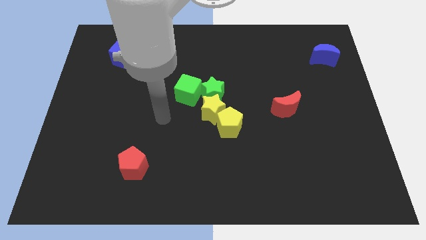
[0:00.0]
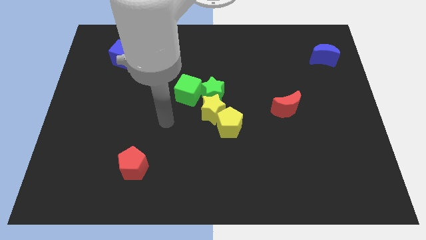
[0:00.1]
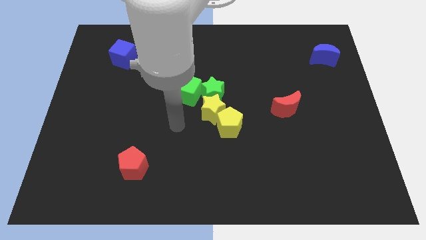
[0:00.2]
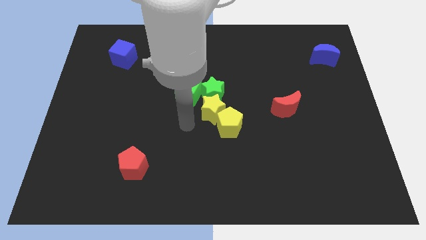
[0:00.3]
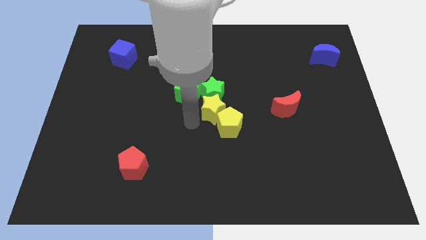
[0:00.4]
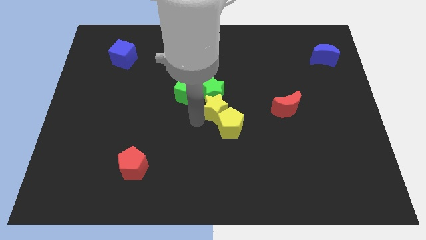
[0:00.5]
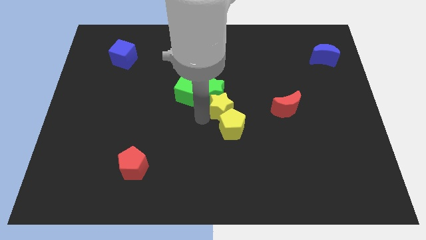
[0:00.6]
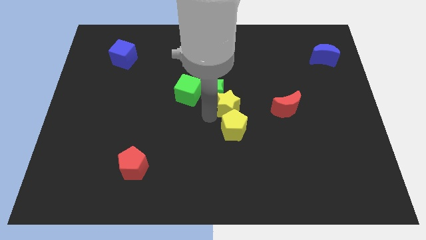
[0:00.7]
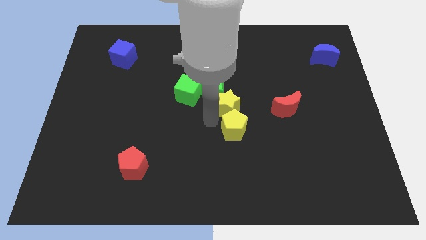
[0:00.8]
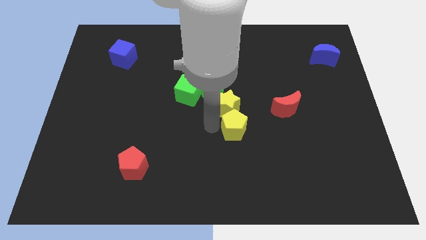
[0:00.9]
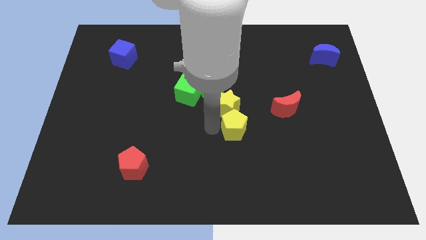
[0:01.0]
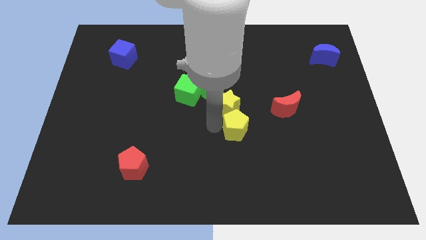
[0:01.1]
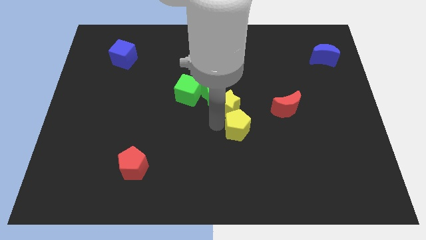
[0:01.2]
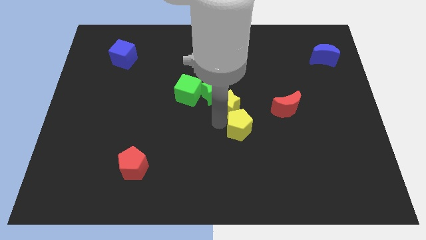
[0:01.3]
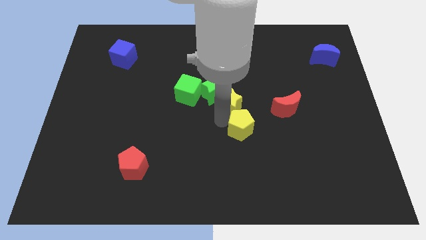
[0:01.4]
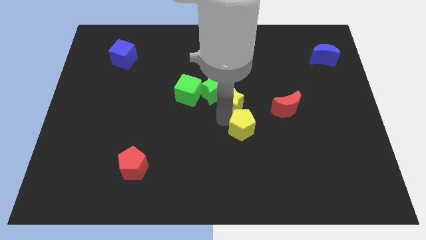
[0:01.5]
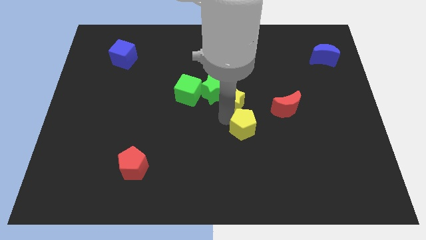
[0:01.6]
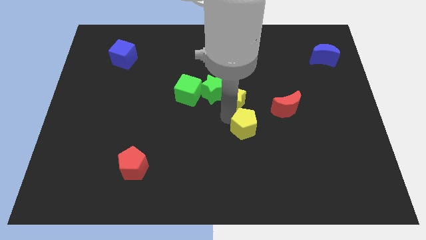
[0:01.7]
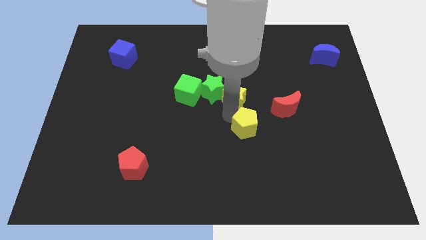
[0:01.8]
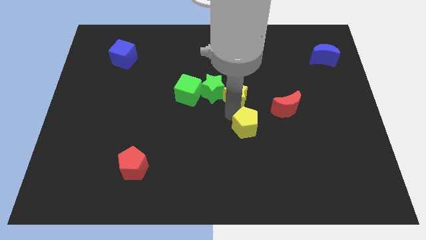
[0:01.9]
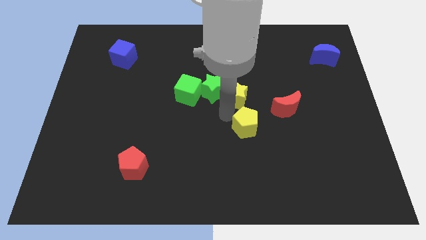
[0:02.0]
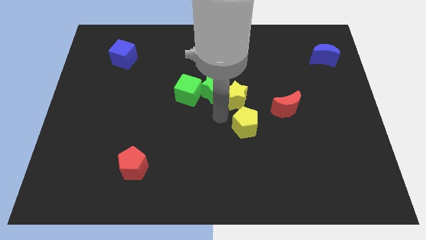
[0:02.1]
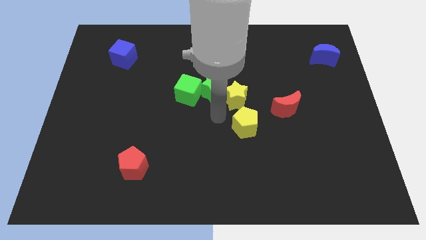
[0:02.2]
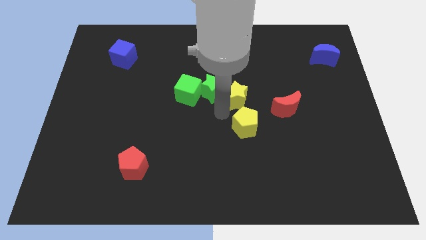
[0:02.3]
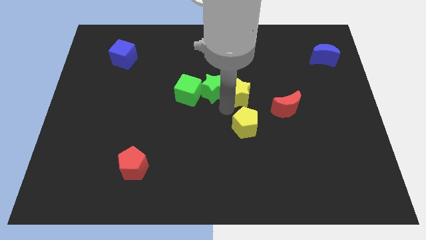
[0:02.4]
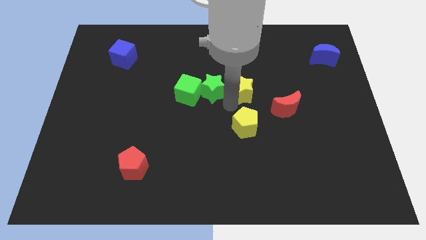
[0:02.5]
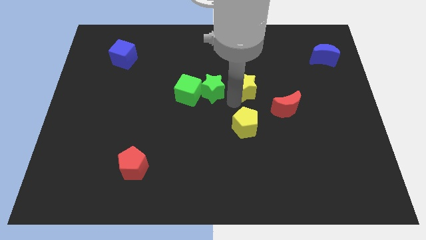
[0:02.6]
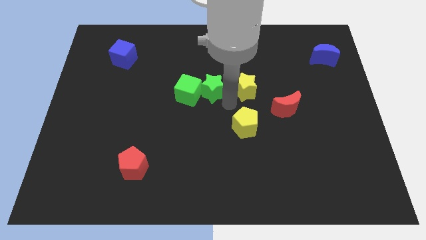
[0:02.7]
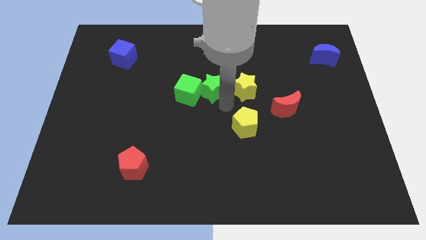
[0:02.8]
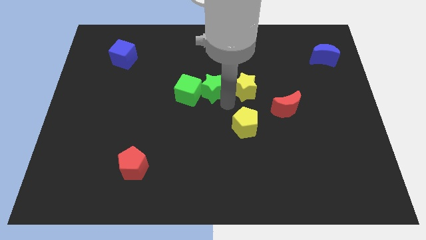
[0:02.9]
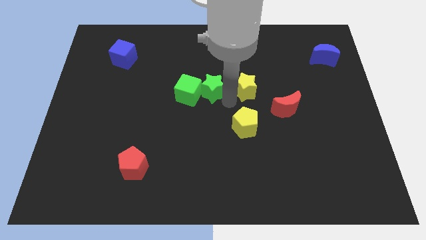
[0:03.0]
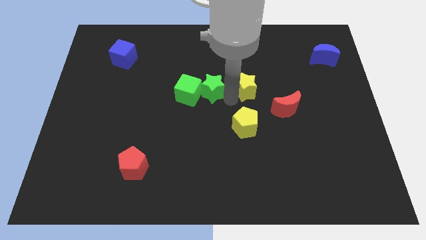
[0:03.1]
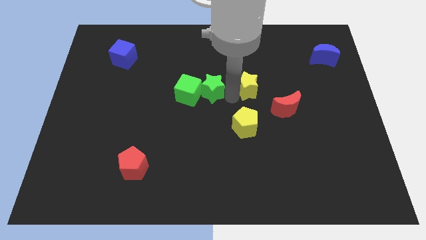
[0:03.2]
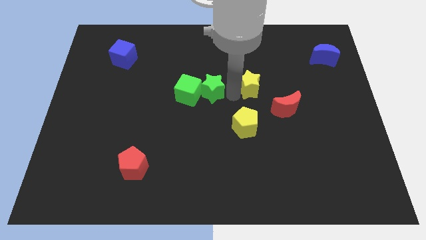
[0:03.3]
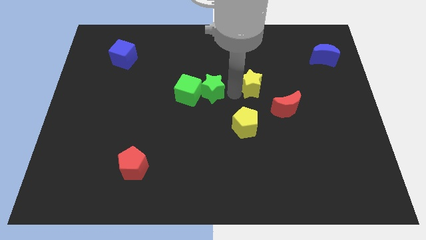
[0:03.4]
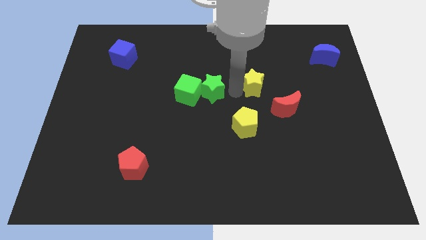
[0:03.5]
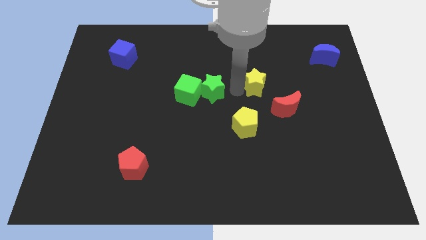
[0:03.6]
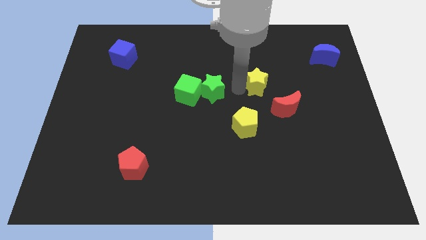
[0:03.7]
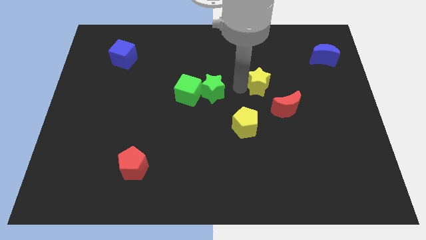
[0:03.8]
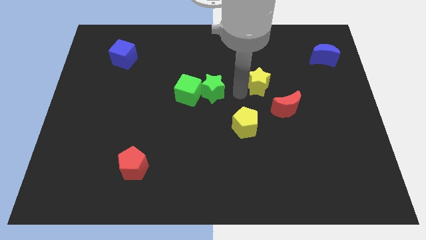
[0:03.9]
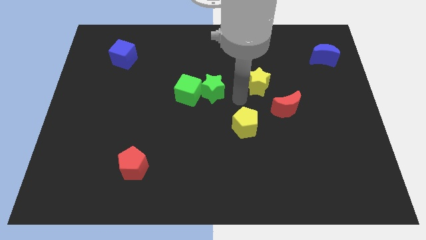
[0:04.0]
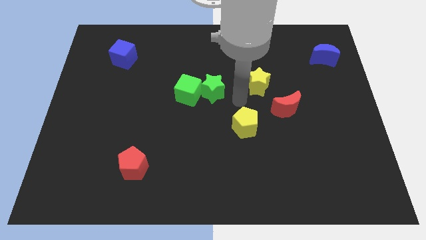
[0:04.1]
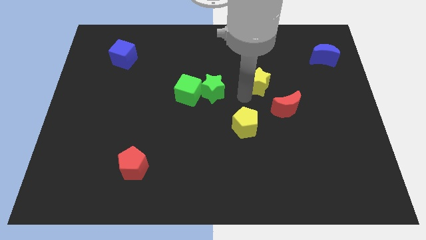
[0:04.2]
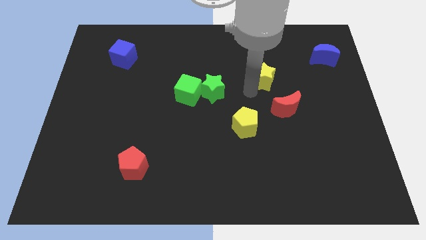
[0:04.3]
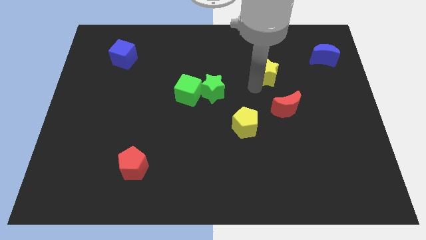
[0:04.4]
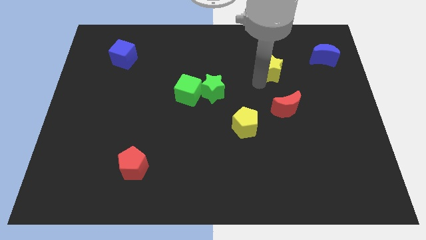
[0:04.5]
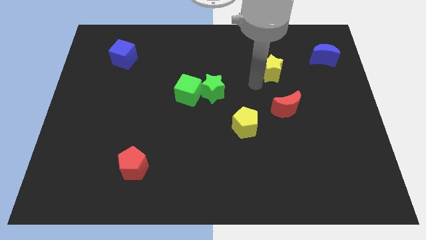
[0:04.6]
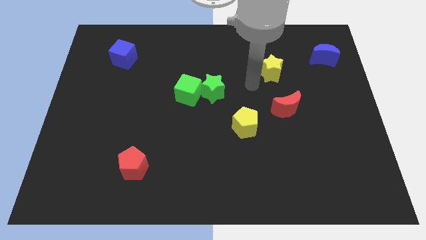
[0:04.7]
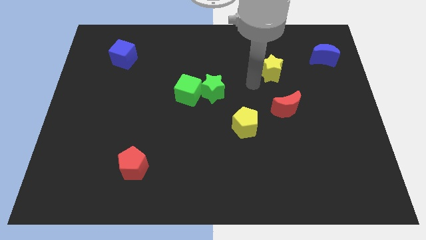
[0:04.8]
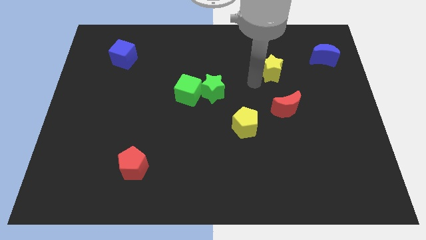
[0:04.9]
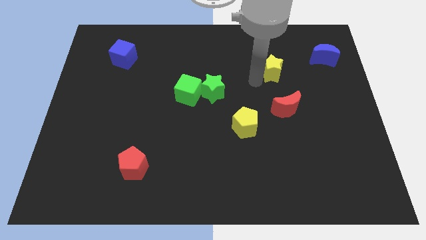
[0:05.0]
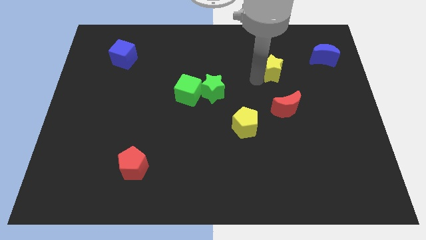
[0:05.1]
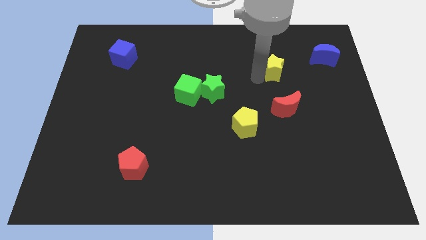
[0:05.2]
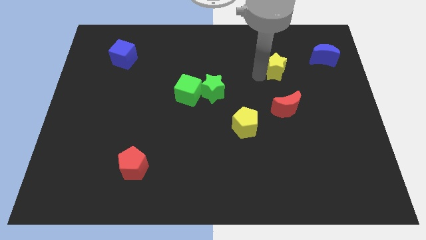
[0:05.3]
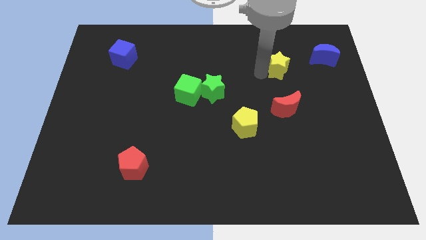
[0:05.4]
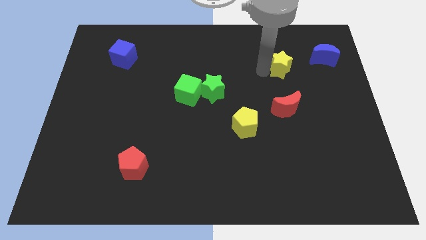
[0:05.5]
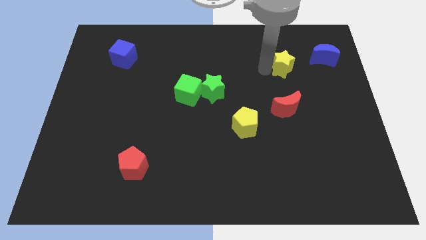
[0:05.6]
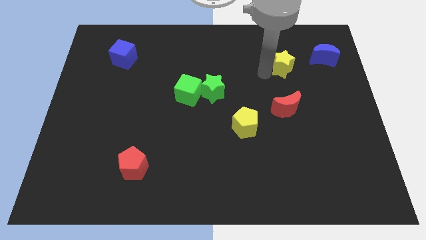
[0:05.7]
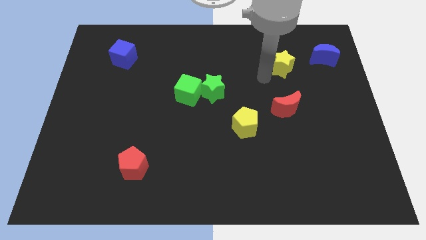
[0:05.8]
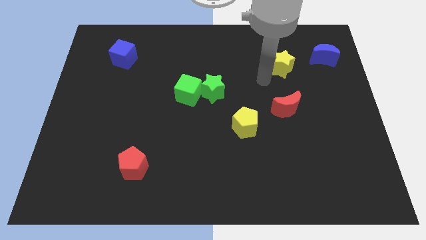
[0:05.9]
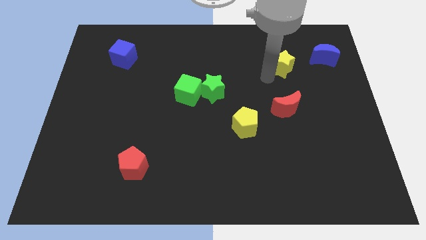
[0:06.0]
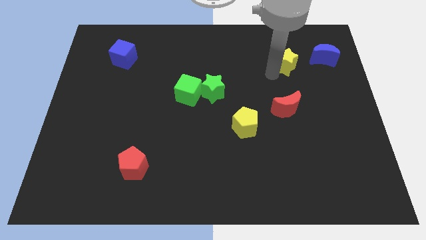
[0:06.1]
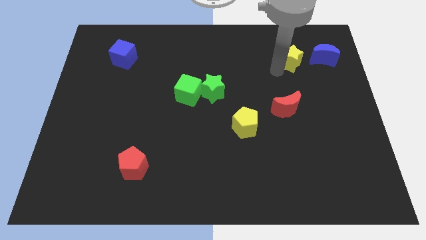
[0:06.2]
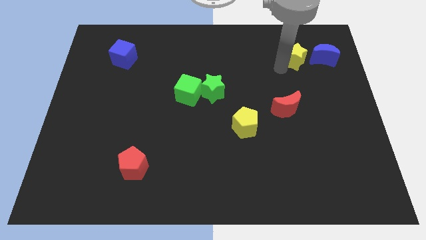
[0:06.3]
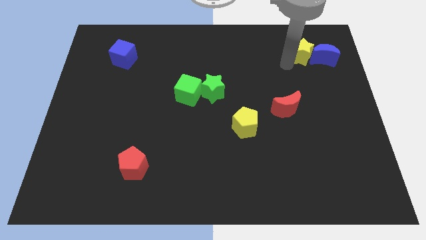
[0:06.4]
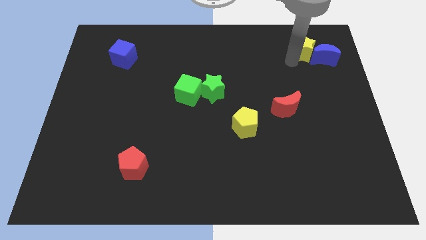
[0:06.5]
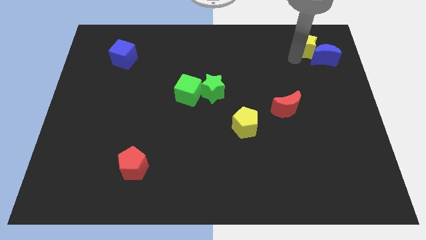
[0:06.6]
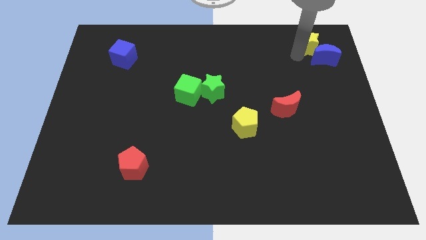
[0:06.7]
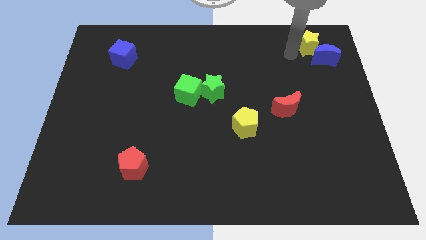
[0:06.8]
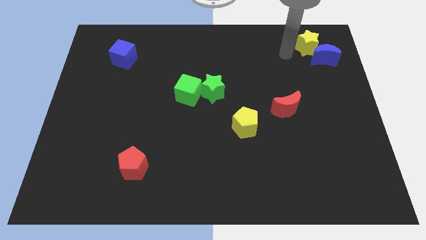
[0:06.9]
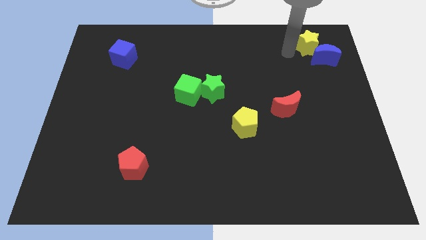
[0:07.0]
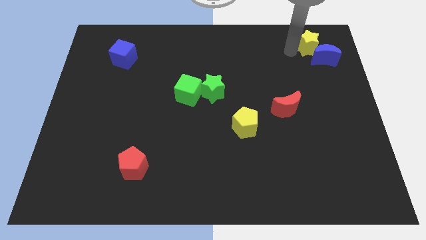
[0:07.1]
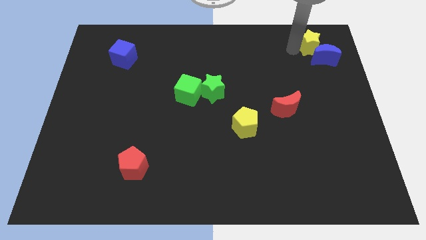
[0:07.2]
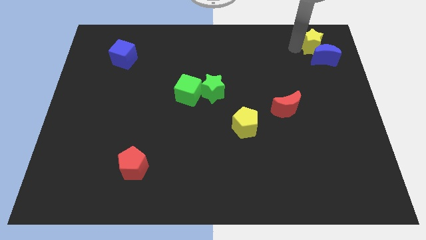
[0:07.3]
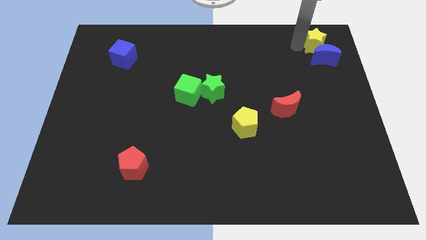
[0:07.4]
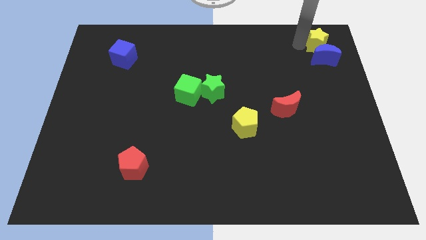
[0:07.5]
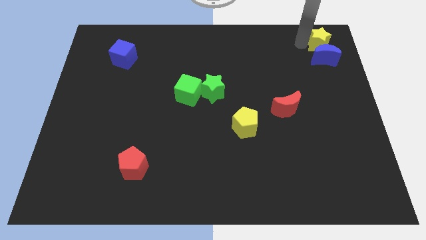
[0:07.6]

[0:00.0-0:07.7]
move the yellow star to the top right of the board
